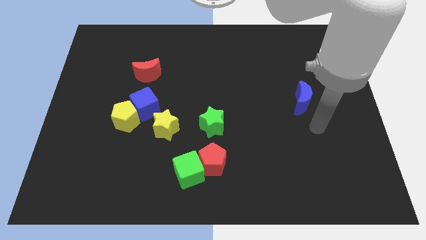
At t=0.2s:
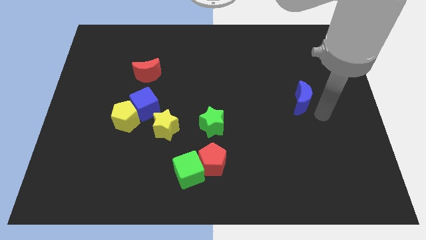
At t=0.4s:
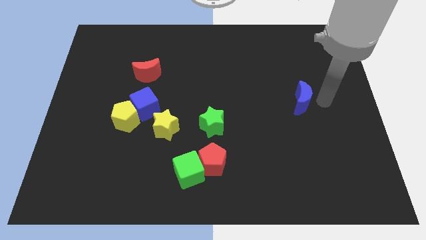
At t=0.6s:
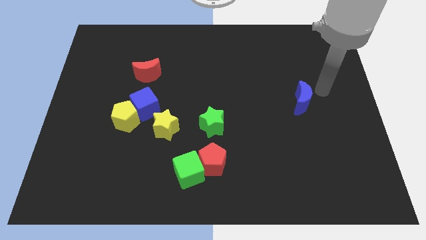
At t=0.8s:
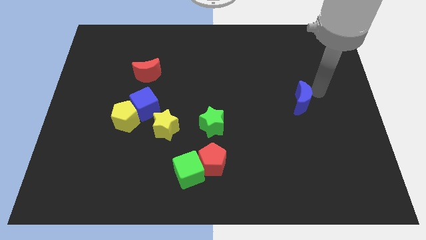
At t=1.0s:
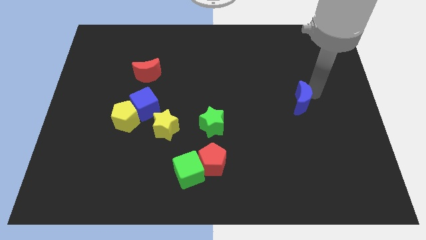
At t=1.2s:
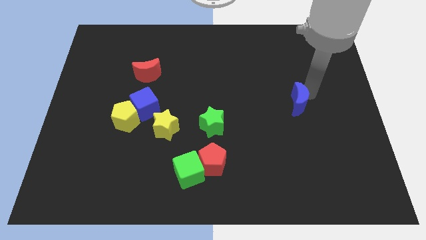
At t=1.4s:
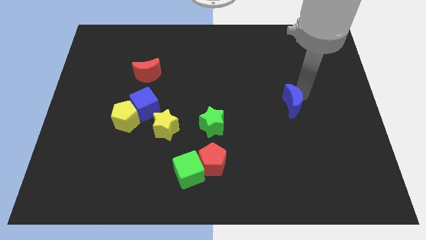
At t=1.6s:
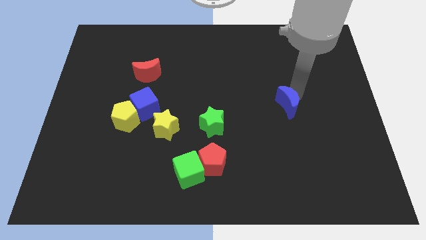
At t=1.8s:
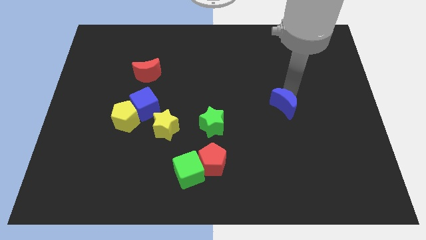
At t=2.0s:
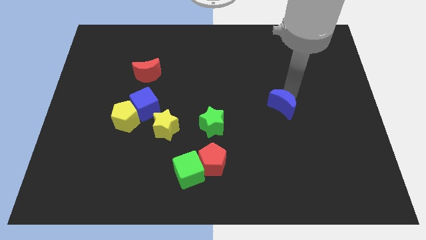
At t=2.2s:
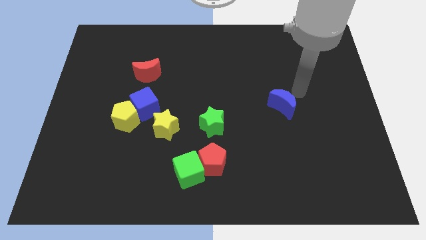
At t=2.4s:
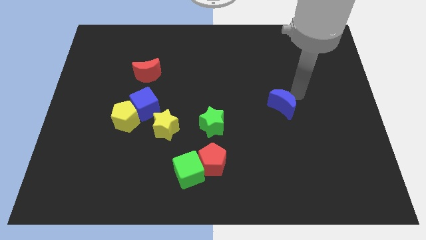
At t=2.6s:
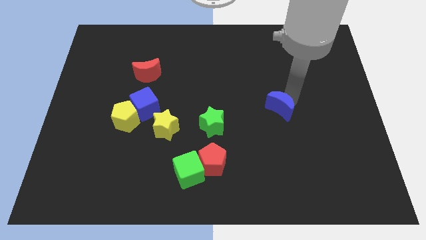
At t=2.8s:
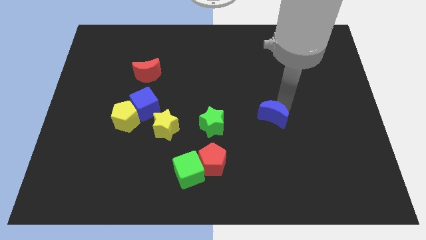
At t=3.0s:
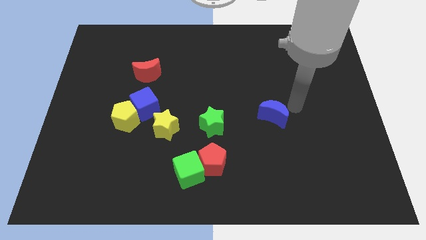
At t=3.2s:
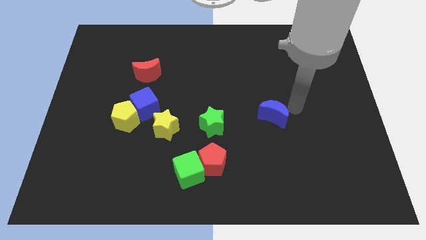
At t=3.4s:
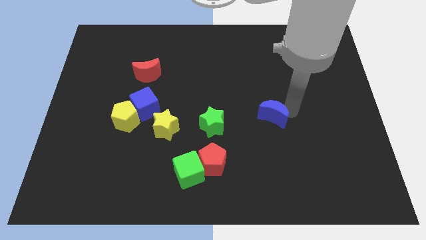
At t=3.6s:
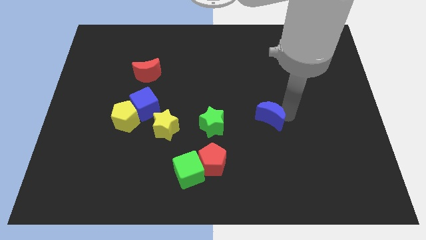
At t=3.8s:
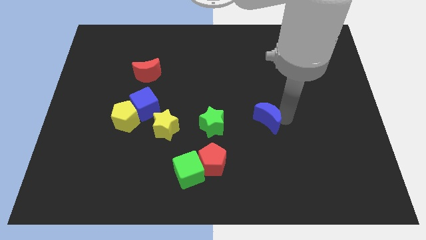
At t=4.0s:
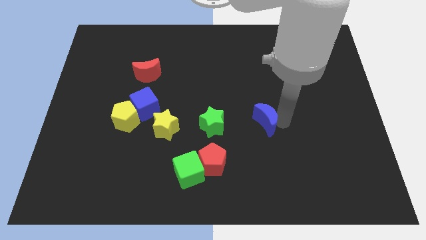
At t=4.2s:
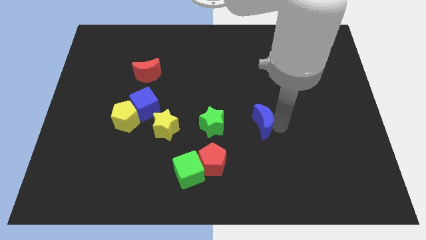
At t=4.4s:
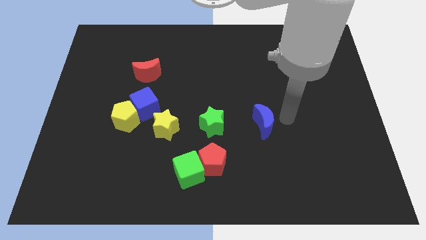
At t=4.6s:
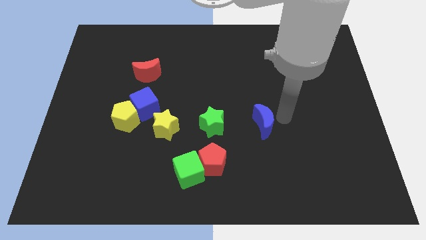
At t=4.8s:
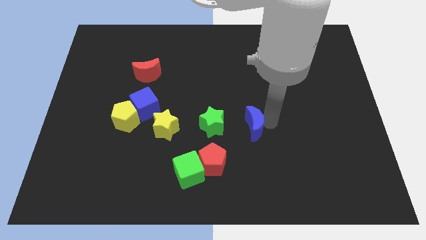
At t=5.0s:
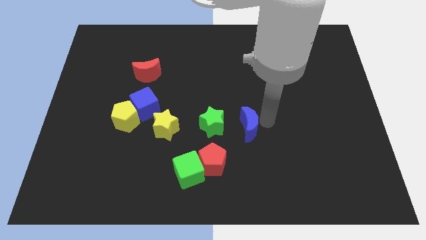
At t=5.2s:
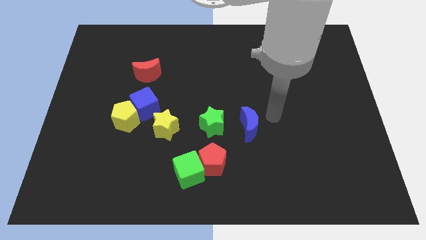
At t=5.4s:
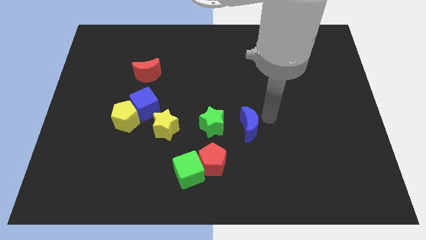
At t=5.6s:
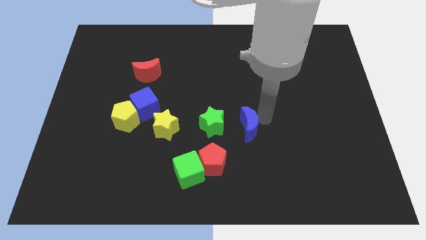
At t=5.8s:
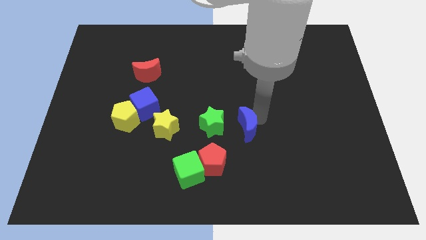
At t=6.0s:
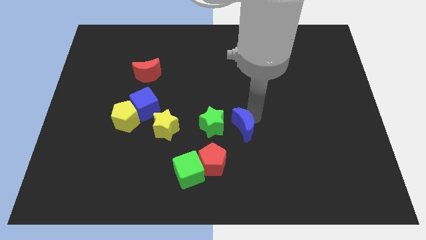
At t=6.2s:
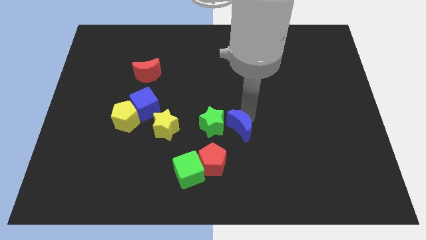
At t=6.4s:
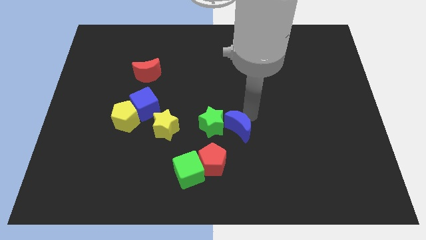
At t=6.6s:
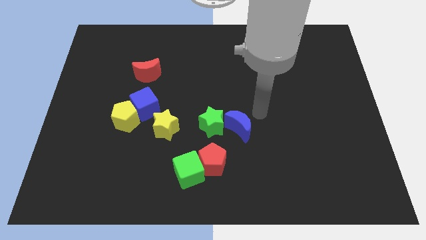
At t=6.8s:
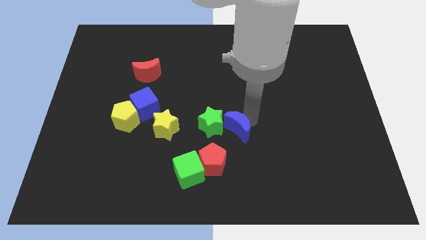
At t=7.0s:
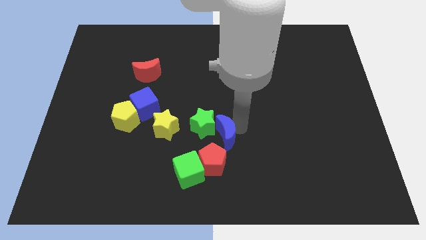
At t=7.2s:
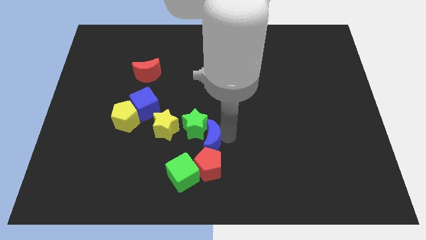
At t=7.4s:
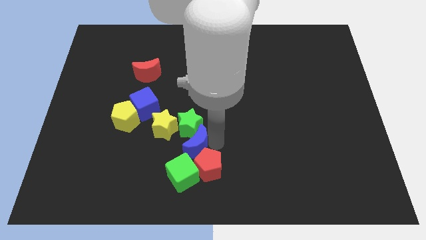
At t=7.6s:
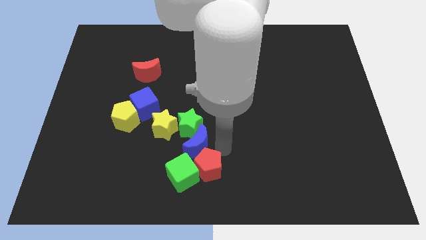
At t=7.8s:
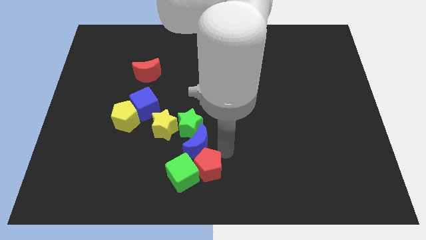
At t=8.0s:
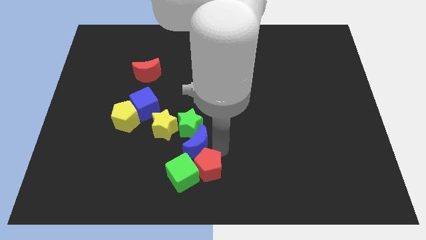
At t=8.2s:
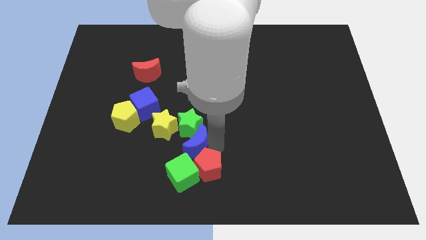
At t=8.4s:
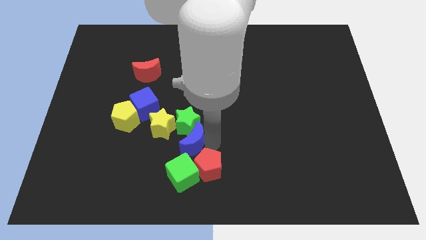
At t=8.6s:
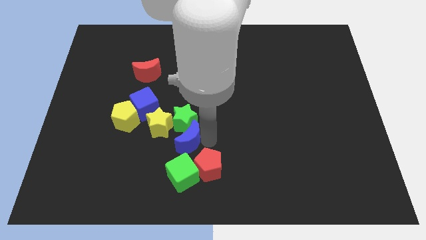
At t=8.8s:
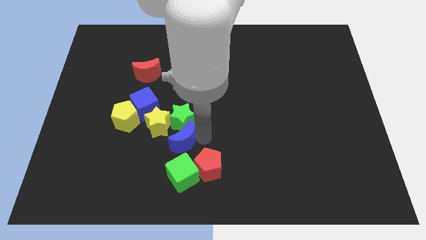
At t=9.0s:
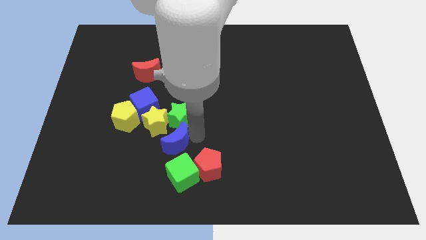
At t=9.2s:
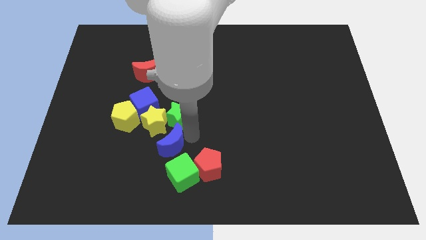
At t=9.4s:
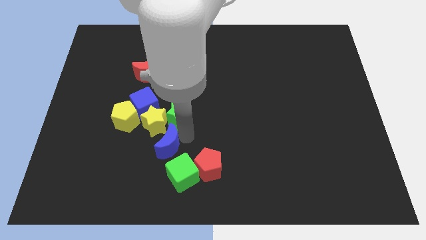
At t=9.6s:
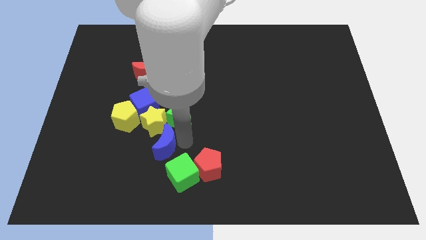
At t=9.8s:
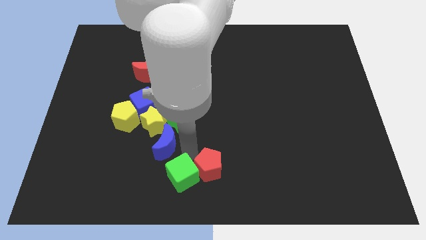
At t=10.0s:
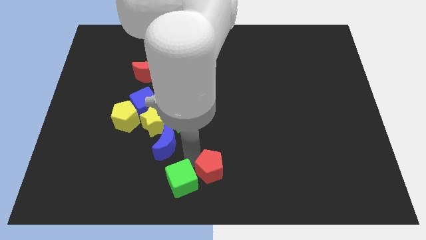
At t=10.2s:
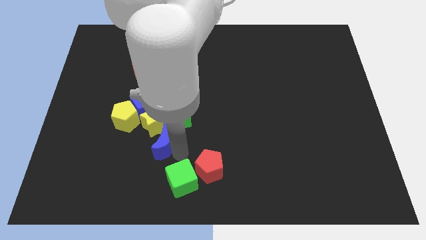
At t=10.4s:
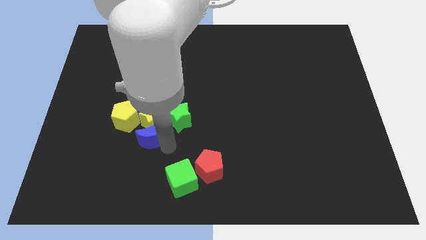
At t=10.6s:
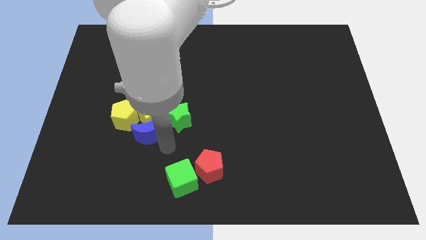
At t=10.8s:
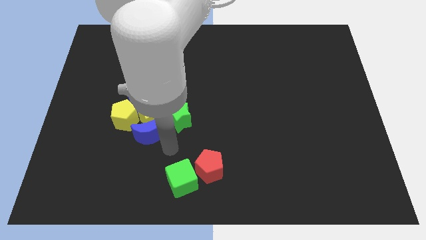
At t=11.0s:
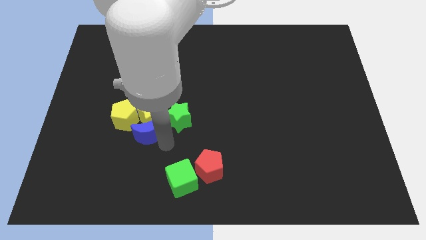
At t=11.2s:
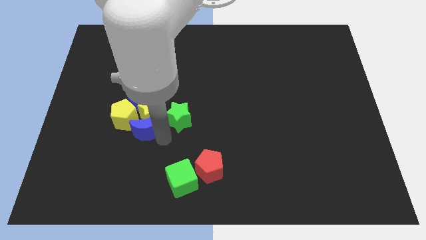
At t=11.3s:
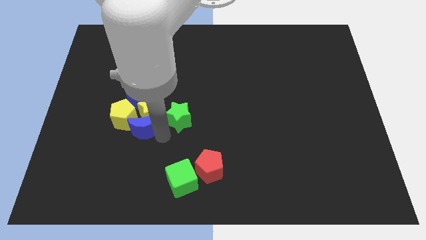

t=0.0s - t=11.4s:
move the blue moon towards the yellow pentagon

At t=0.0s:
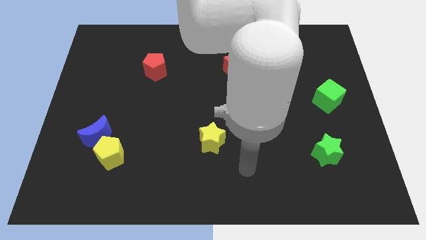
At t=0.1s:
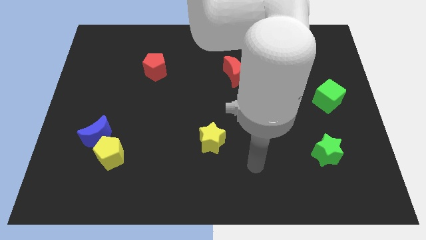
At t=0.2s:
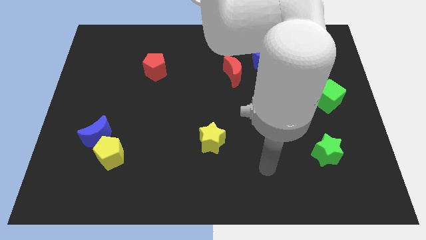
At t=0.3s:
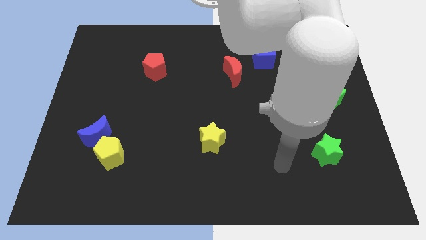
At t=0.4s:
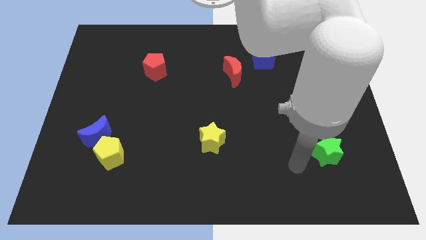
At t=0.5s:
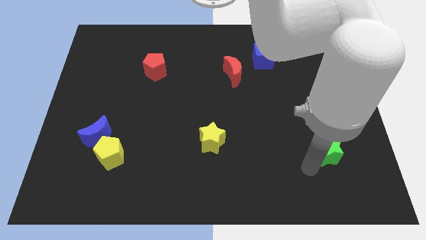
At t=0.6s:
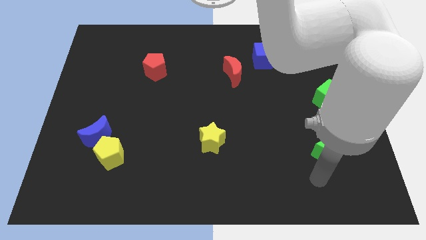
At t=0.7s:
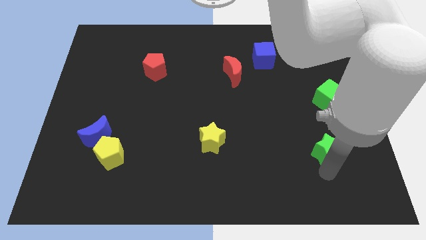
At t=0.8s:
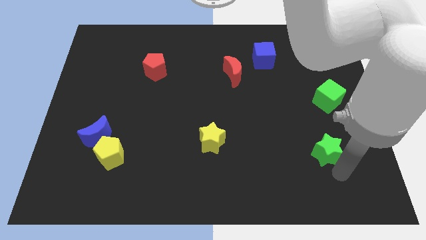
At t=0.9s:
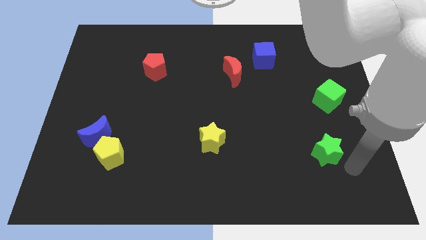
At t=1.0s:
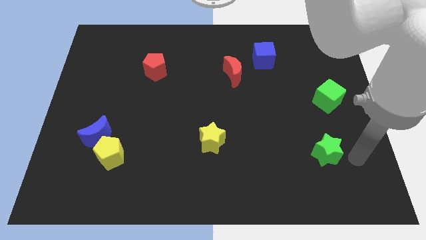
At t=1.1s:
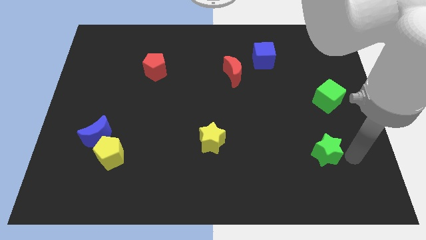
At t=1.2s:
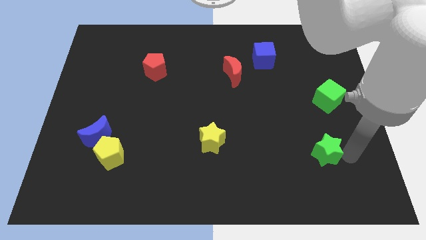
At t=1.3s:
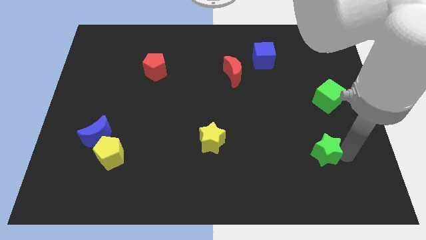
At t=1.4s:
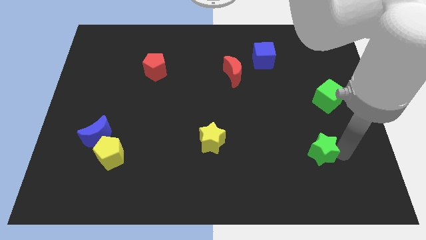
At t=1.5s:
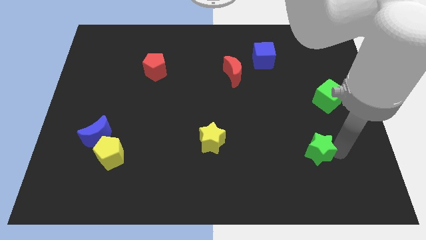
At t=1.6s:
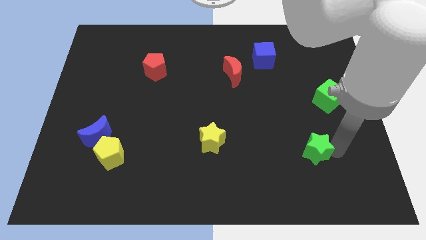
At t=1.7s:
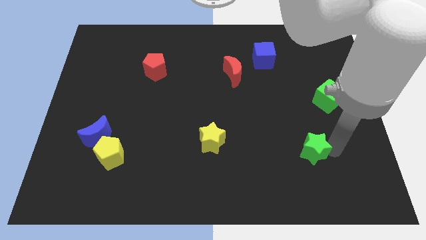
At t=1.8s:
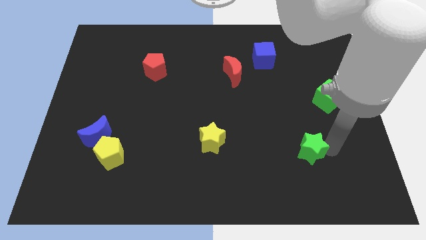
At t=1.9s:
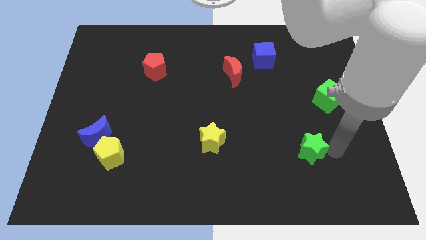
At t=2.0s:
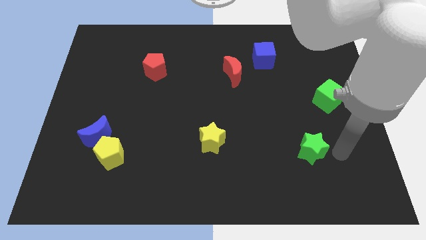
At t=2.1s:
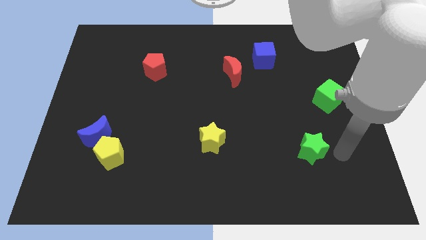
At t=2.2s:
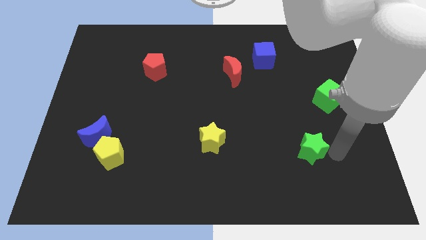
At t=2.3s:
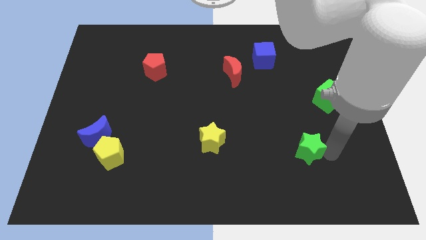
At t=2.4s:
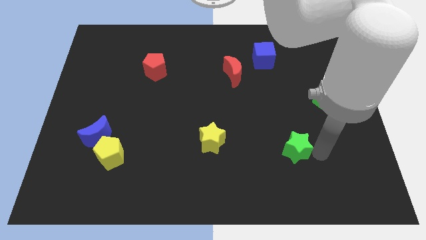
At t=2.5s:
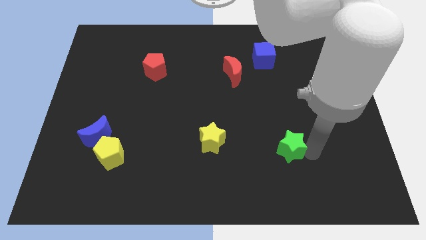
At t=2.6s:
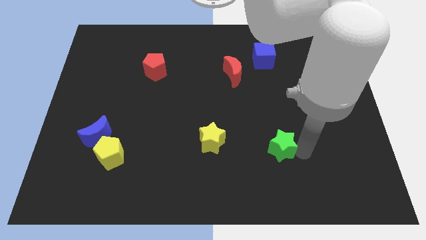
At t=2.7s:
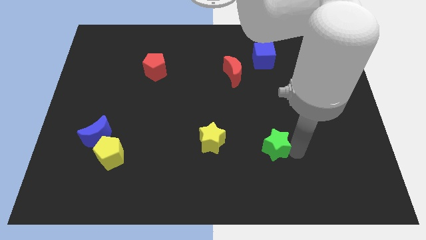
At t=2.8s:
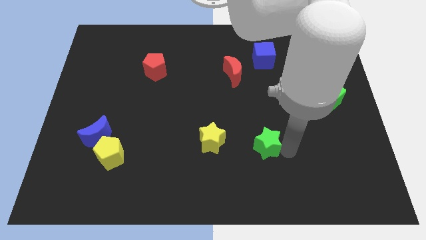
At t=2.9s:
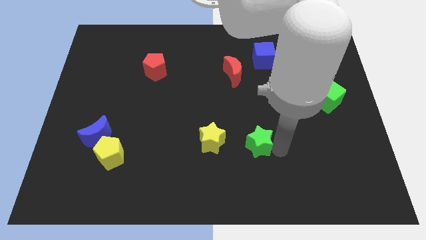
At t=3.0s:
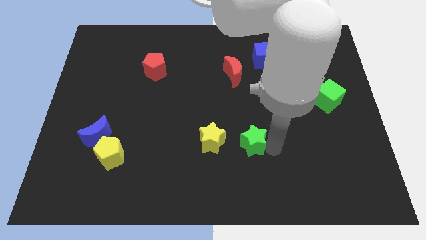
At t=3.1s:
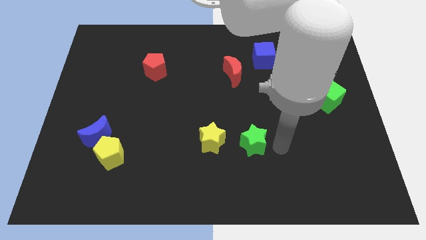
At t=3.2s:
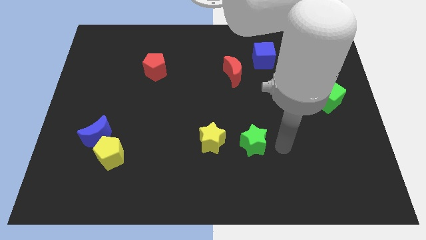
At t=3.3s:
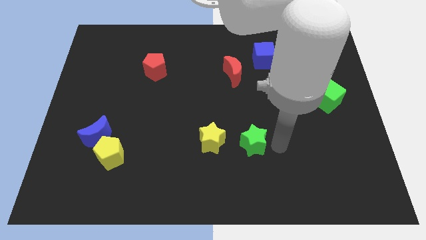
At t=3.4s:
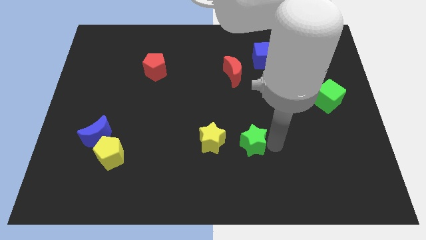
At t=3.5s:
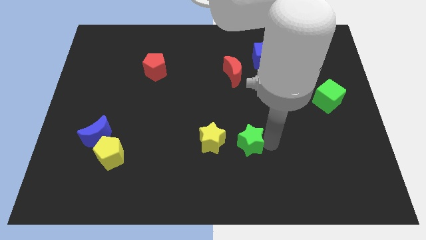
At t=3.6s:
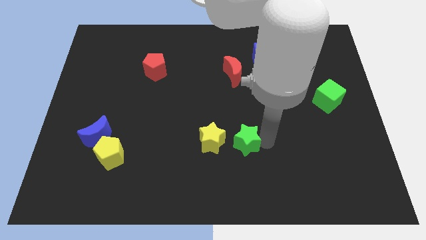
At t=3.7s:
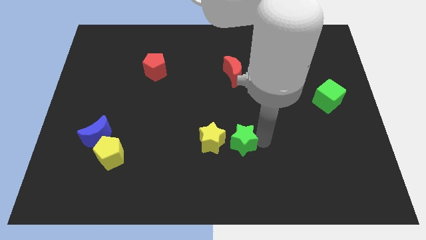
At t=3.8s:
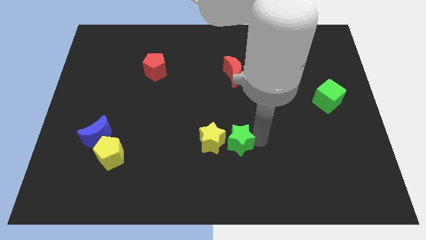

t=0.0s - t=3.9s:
move the green star close to the yellow star
